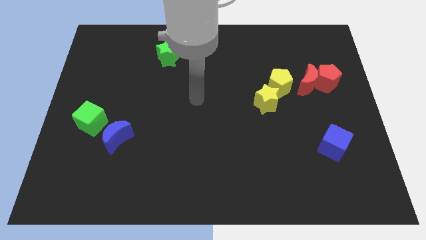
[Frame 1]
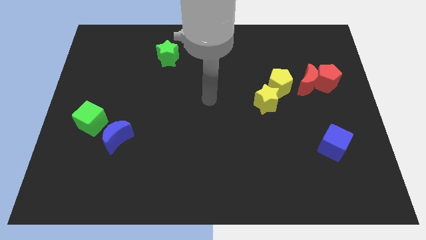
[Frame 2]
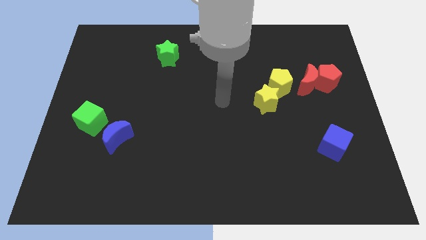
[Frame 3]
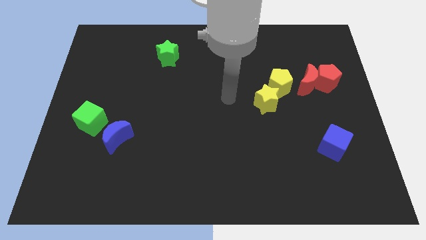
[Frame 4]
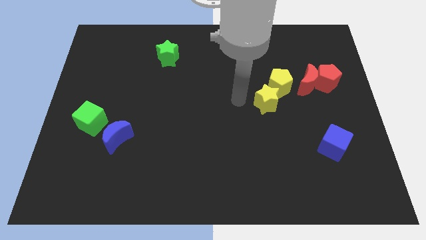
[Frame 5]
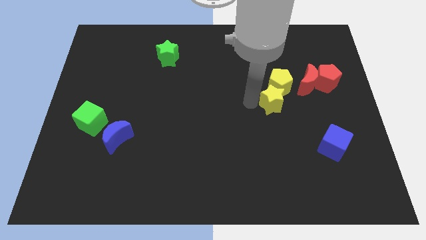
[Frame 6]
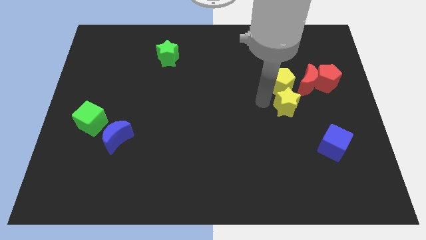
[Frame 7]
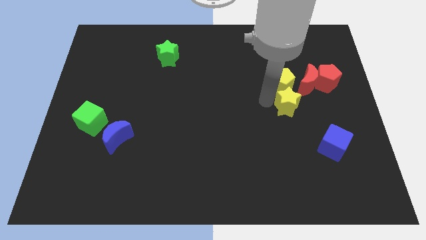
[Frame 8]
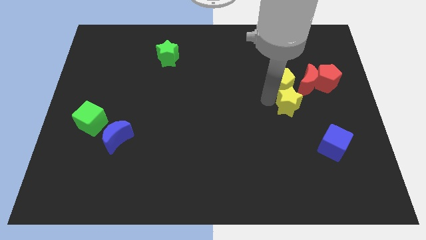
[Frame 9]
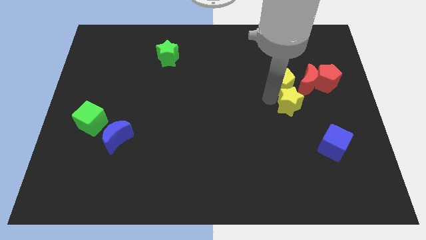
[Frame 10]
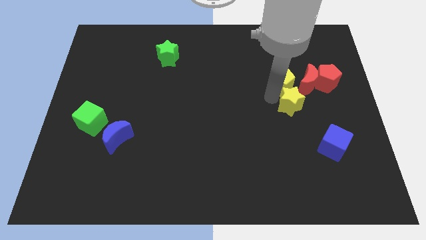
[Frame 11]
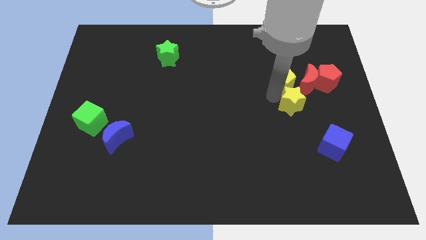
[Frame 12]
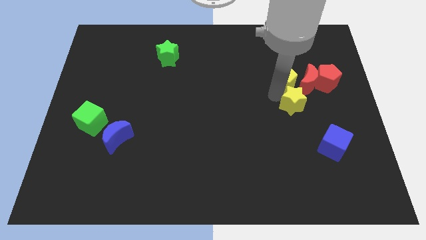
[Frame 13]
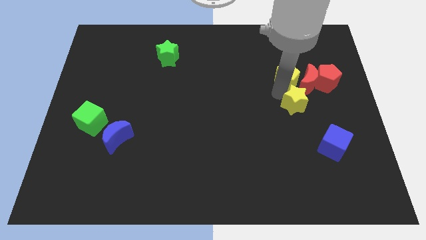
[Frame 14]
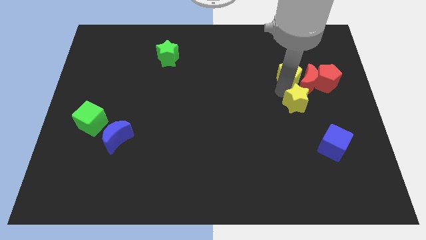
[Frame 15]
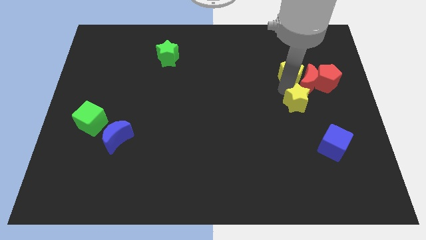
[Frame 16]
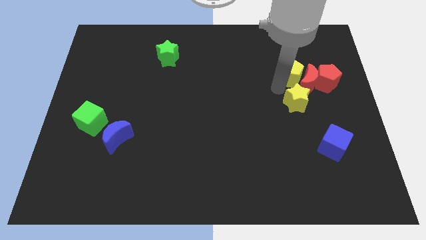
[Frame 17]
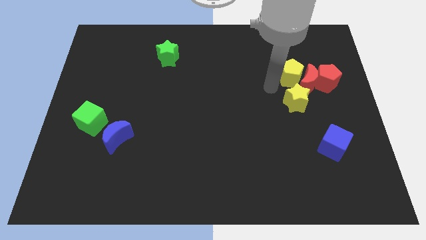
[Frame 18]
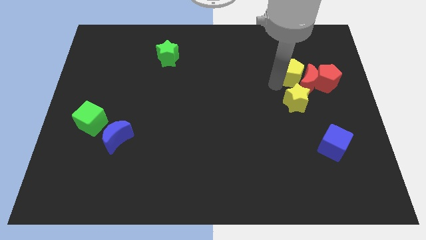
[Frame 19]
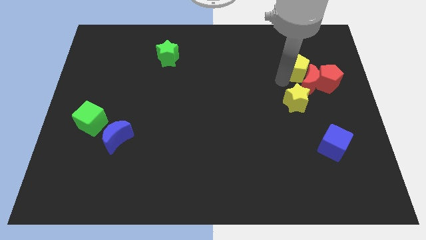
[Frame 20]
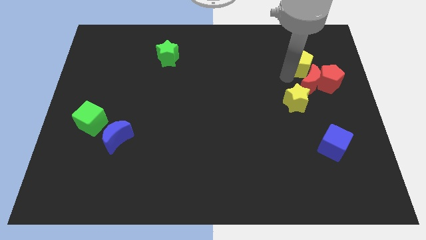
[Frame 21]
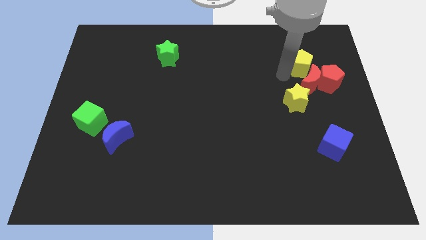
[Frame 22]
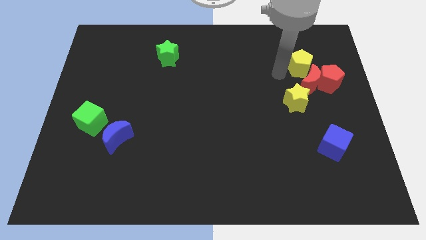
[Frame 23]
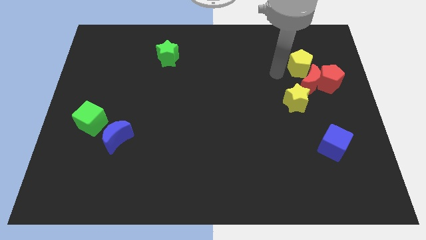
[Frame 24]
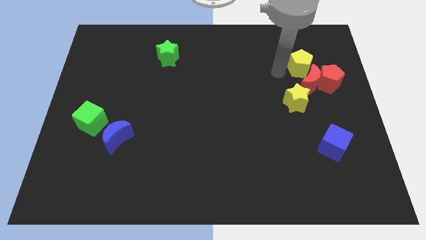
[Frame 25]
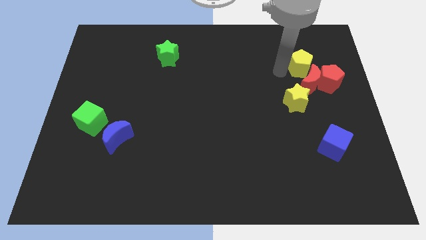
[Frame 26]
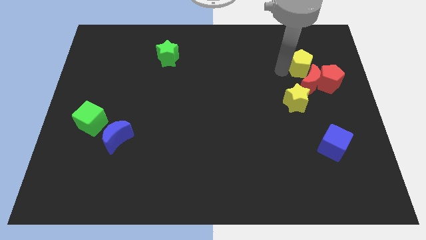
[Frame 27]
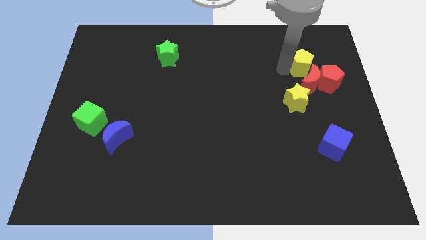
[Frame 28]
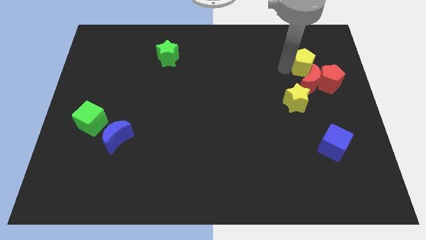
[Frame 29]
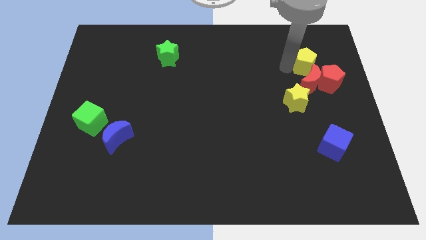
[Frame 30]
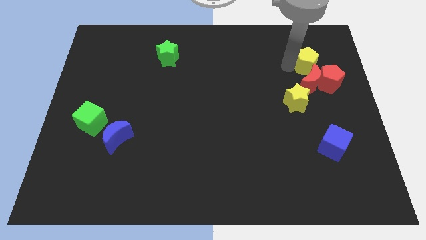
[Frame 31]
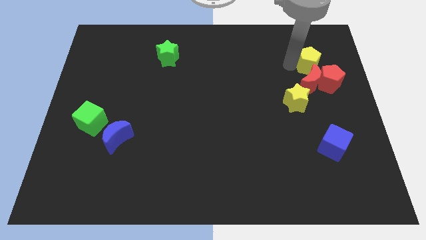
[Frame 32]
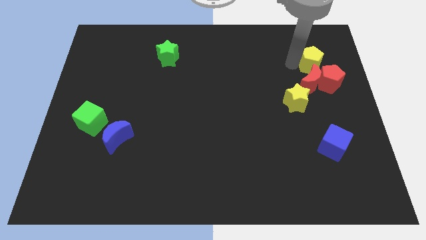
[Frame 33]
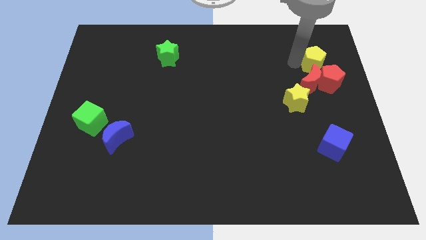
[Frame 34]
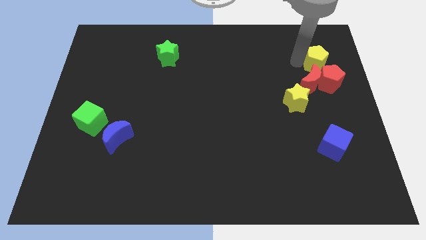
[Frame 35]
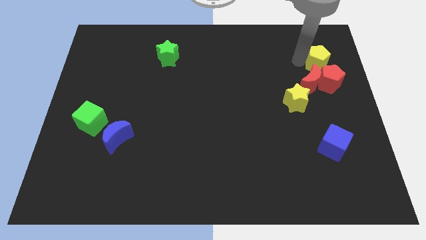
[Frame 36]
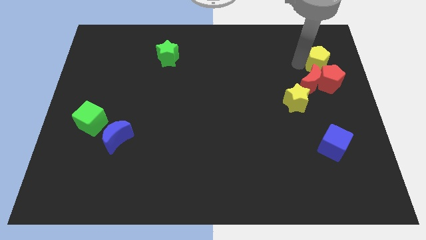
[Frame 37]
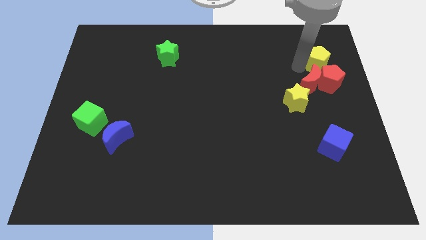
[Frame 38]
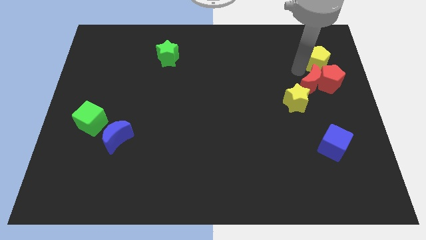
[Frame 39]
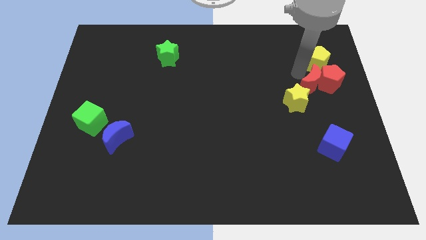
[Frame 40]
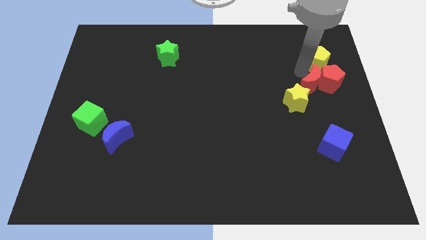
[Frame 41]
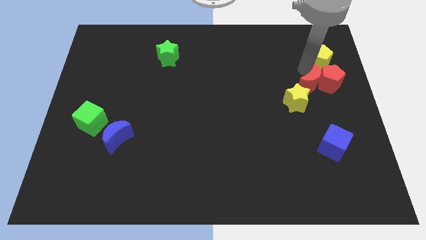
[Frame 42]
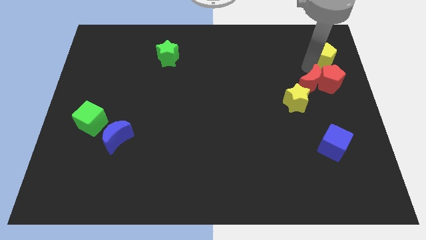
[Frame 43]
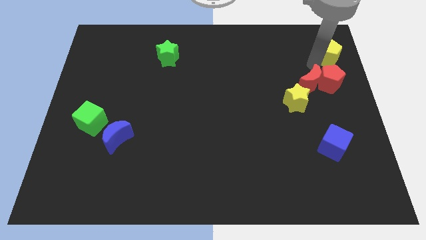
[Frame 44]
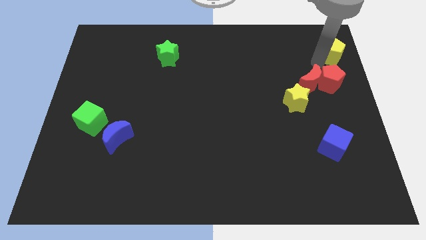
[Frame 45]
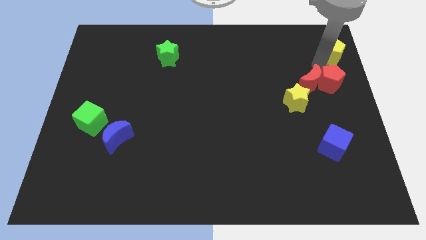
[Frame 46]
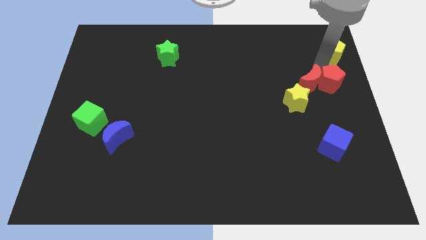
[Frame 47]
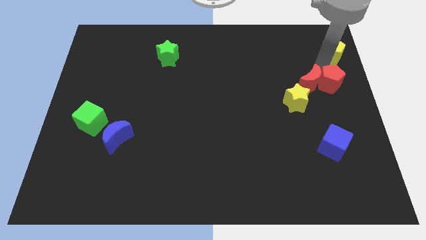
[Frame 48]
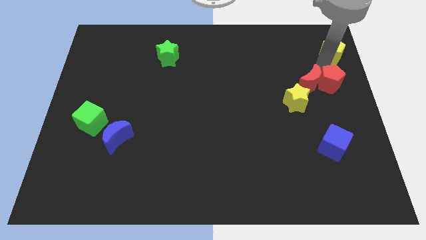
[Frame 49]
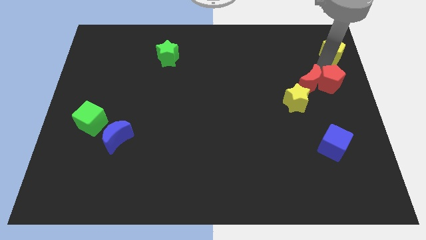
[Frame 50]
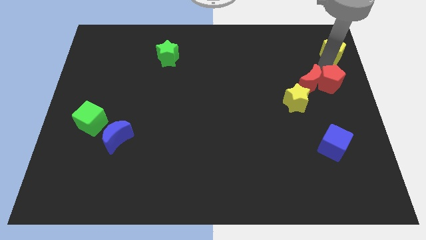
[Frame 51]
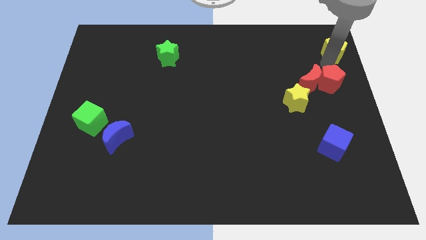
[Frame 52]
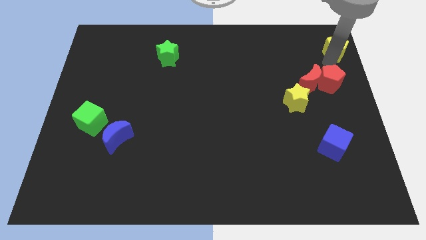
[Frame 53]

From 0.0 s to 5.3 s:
put the yellow pentagon to the top right

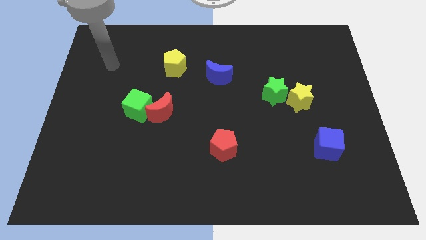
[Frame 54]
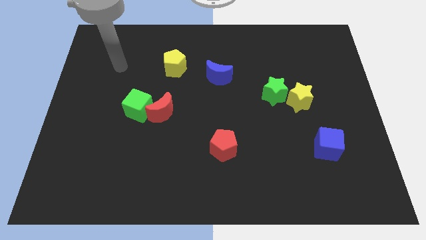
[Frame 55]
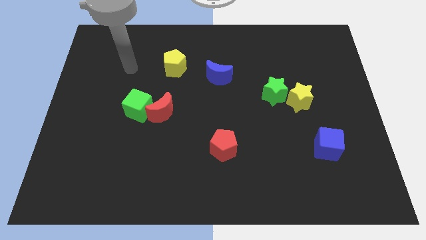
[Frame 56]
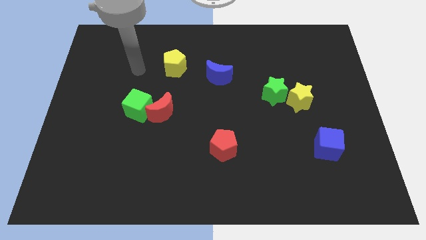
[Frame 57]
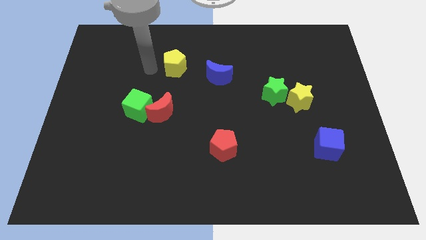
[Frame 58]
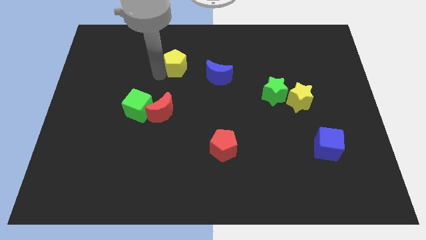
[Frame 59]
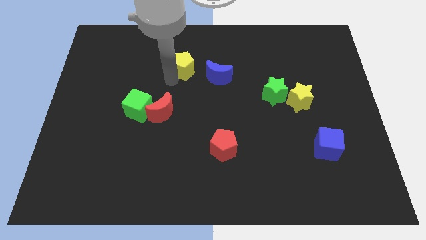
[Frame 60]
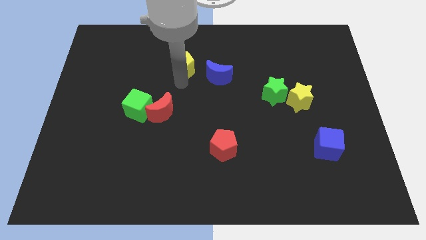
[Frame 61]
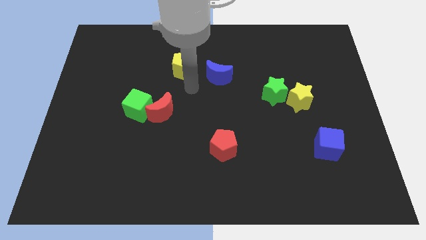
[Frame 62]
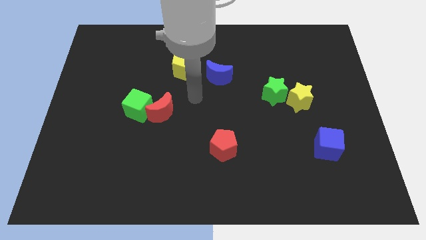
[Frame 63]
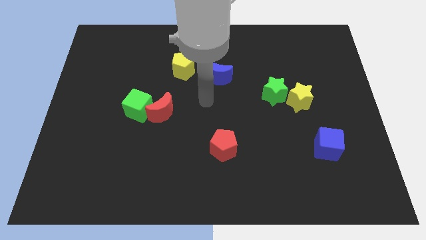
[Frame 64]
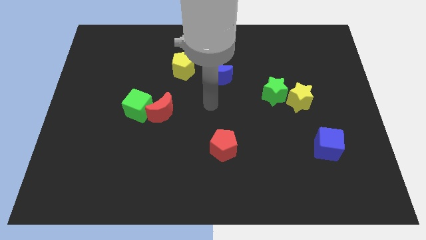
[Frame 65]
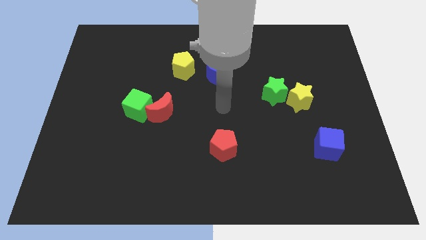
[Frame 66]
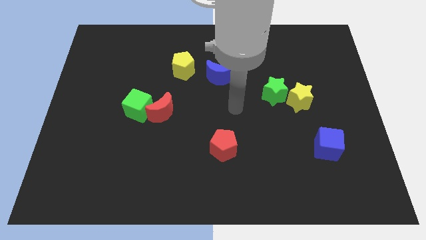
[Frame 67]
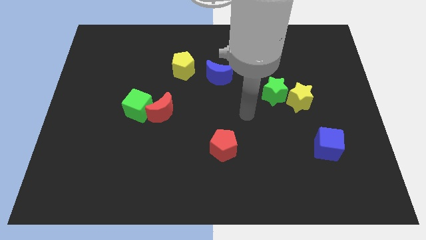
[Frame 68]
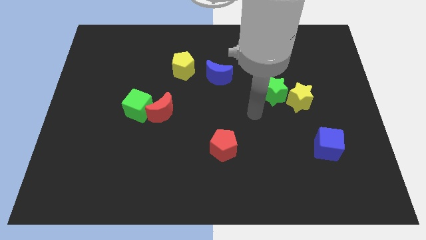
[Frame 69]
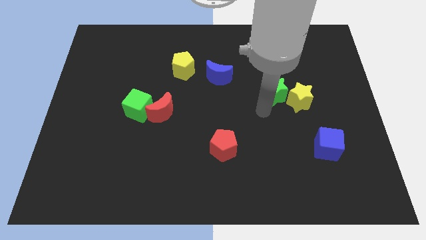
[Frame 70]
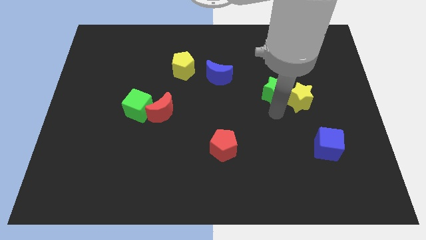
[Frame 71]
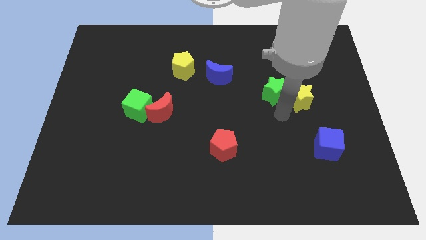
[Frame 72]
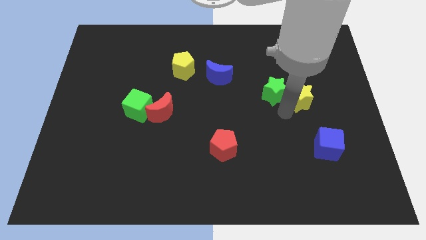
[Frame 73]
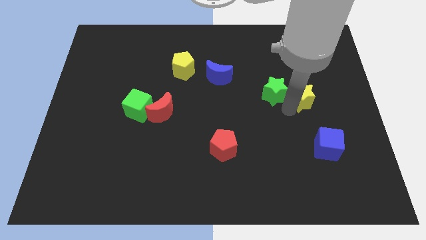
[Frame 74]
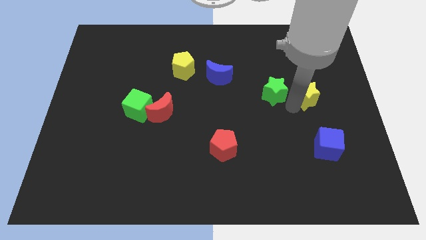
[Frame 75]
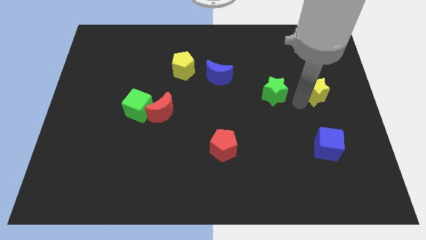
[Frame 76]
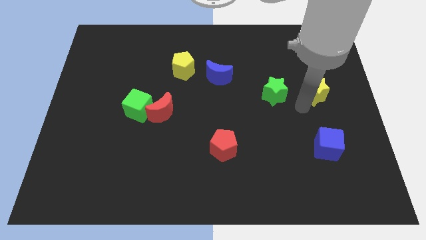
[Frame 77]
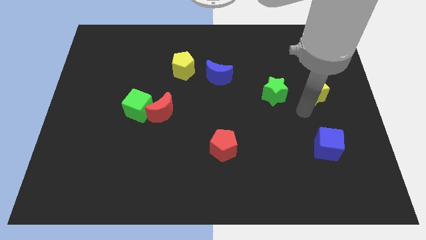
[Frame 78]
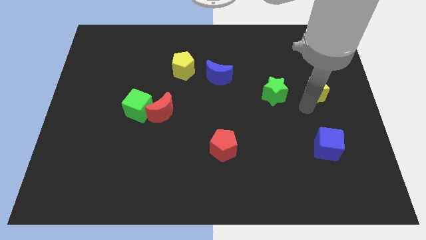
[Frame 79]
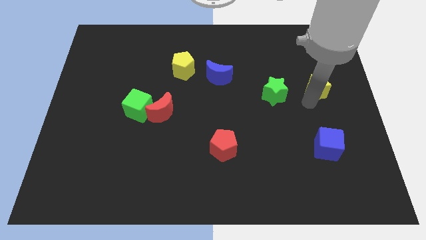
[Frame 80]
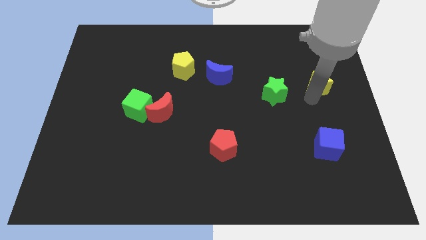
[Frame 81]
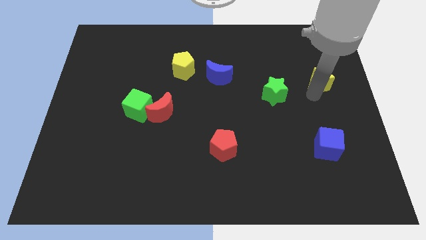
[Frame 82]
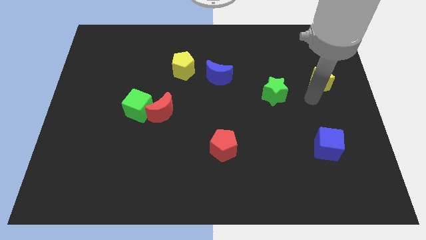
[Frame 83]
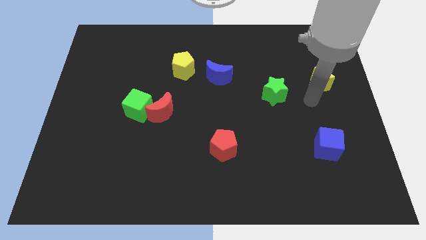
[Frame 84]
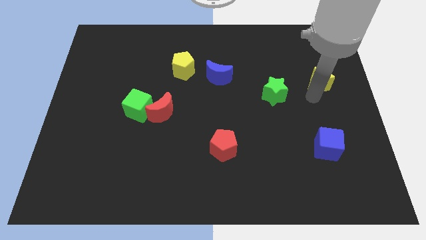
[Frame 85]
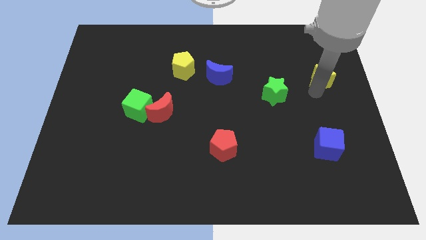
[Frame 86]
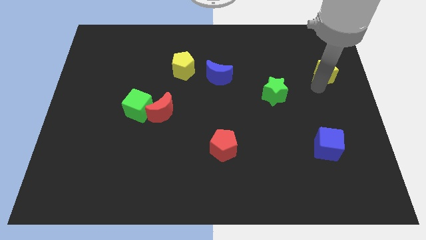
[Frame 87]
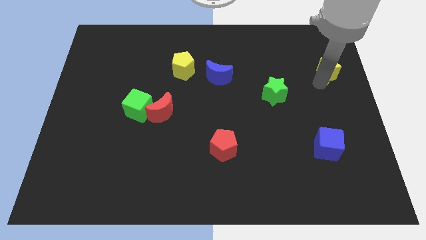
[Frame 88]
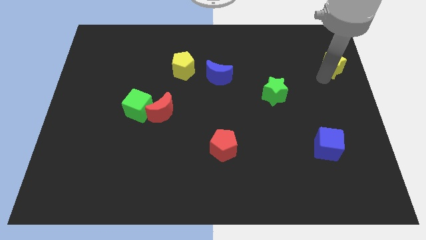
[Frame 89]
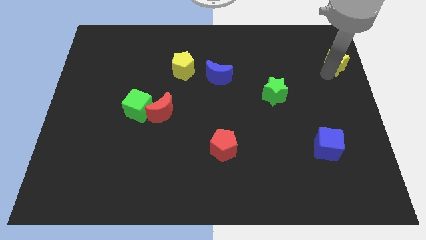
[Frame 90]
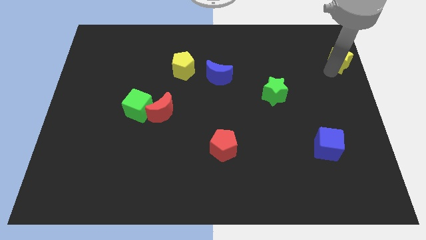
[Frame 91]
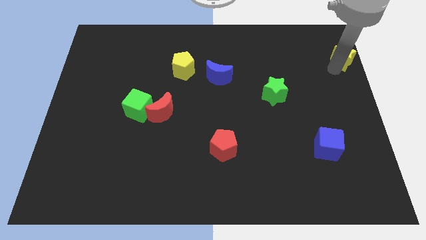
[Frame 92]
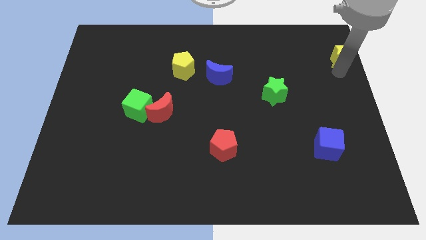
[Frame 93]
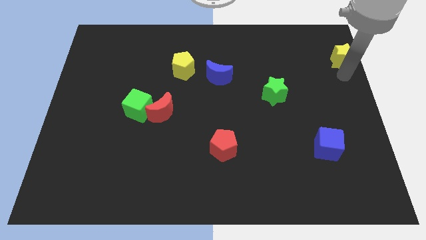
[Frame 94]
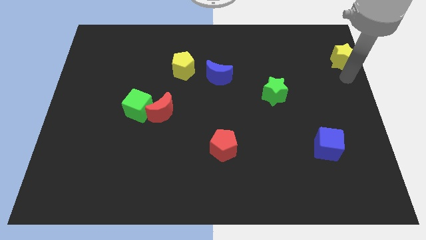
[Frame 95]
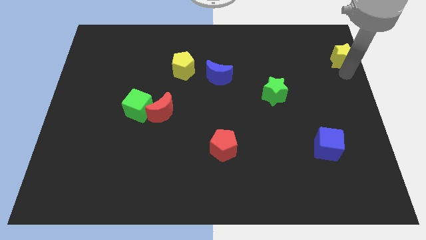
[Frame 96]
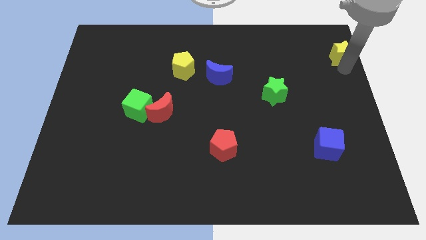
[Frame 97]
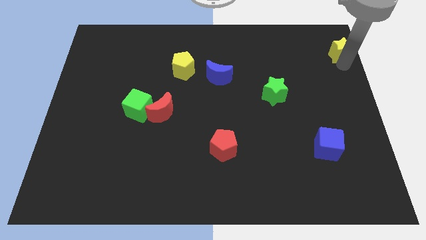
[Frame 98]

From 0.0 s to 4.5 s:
move the yellow star to the top right corner
